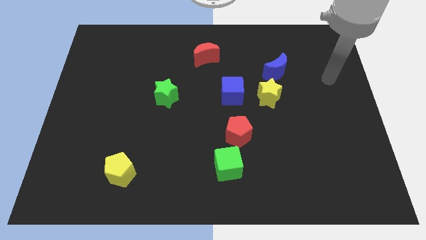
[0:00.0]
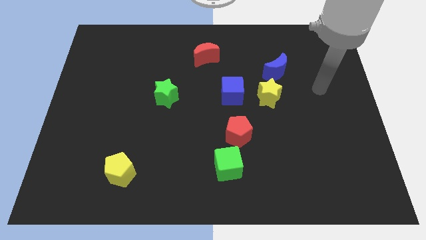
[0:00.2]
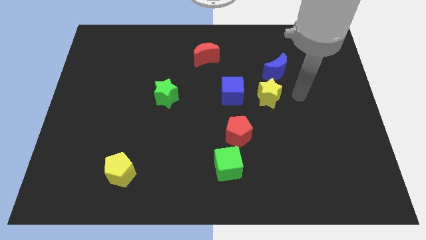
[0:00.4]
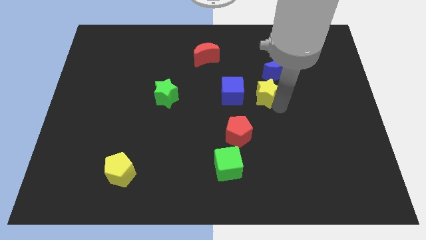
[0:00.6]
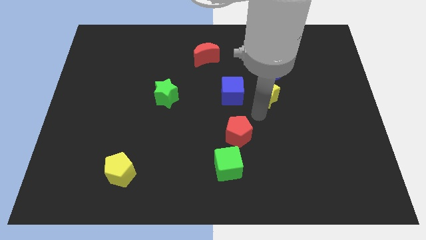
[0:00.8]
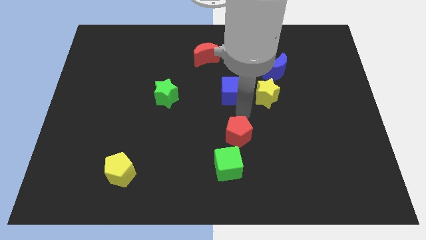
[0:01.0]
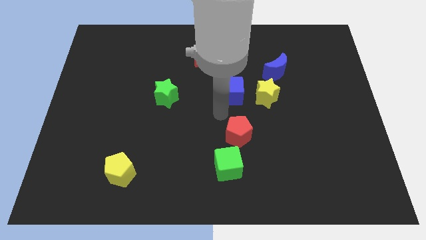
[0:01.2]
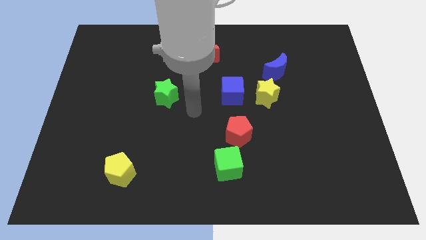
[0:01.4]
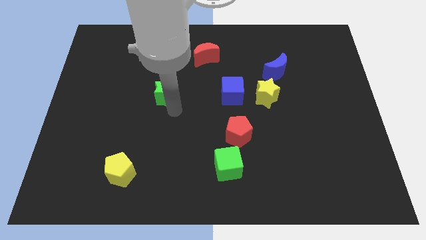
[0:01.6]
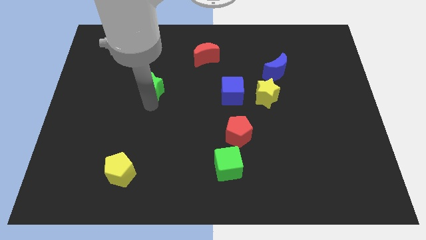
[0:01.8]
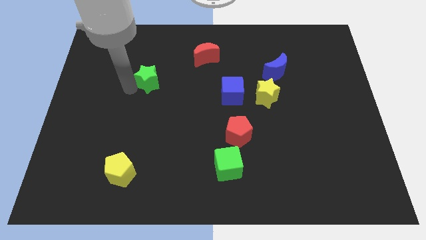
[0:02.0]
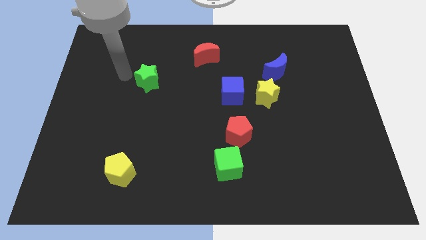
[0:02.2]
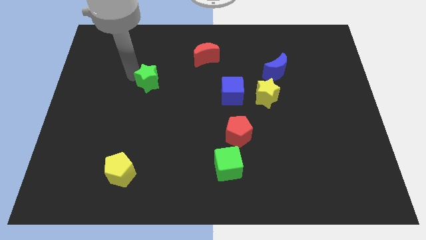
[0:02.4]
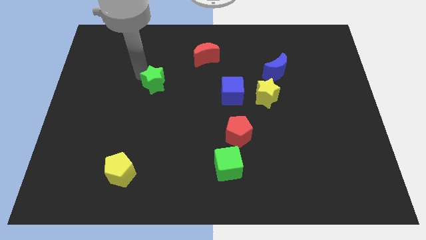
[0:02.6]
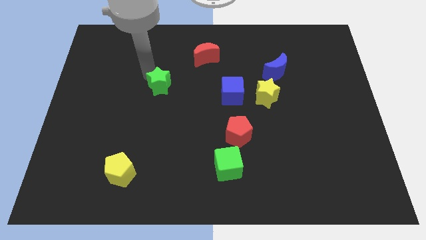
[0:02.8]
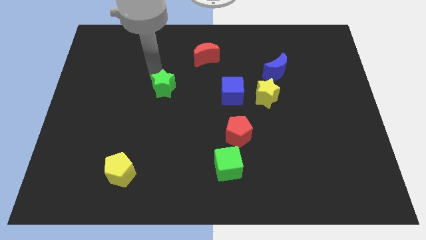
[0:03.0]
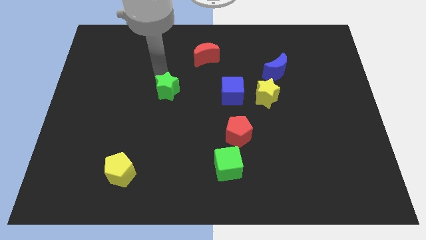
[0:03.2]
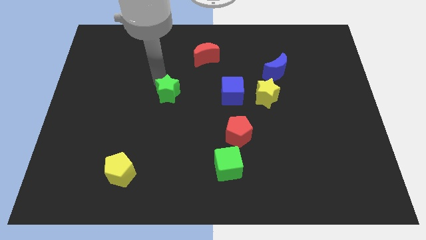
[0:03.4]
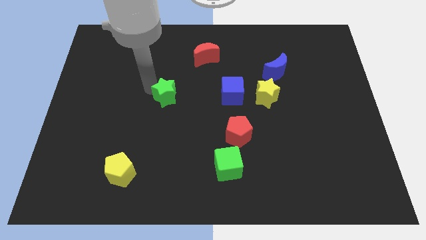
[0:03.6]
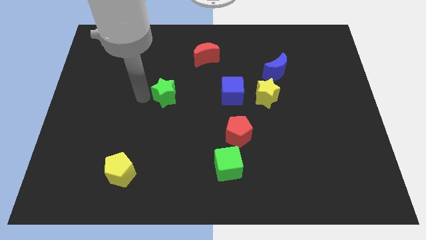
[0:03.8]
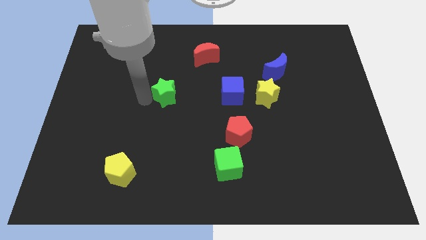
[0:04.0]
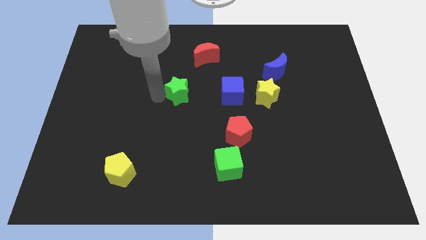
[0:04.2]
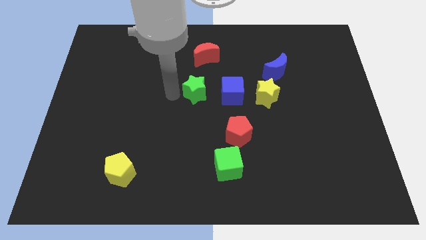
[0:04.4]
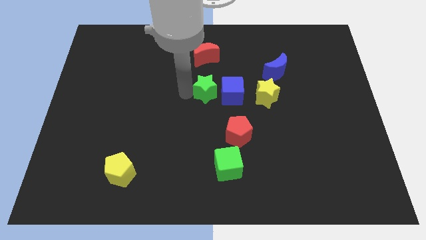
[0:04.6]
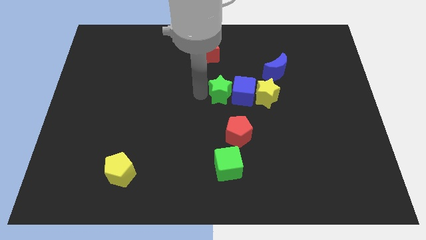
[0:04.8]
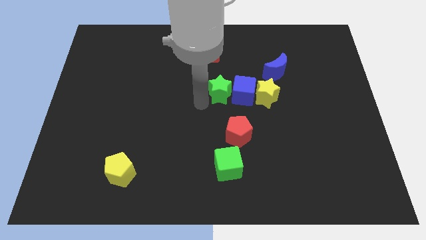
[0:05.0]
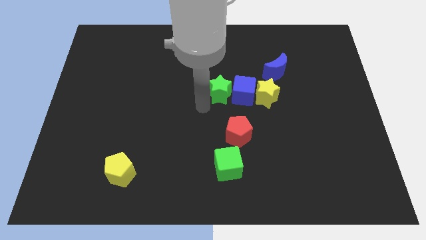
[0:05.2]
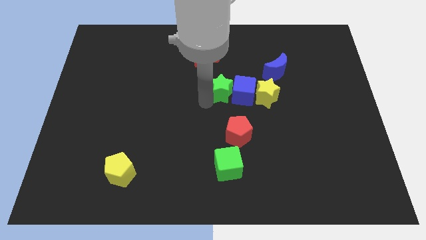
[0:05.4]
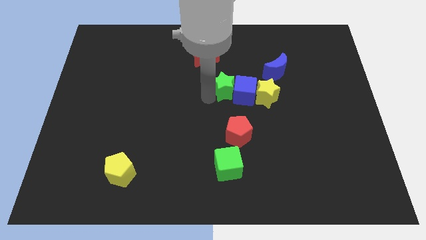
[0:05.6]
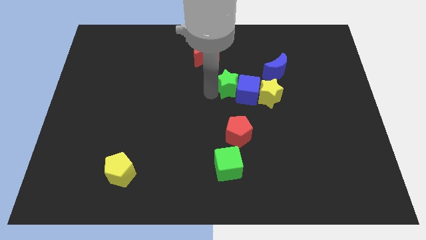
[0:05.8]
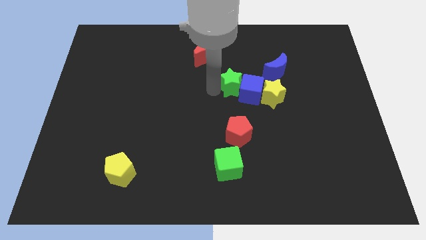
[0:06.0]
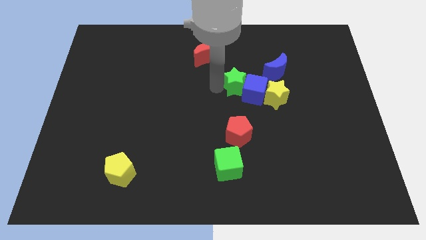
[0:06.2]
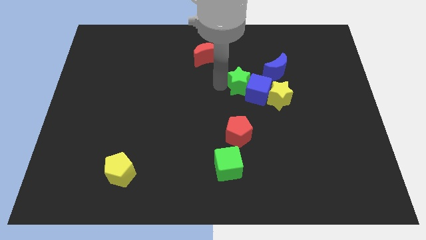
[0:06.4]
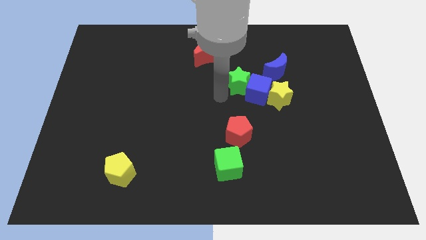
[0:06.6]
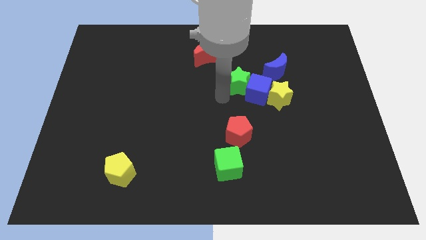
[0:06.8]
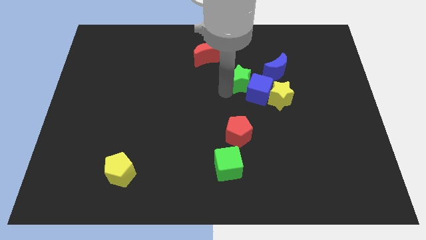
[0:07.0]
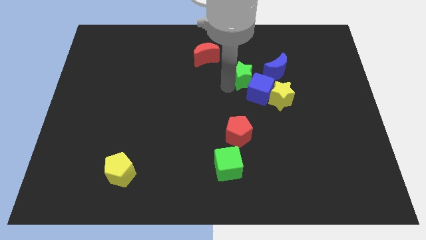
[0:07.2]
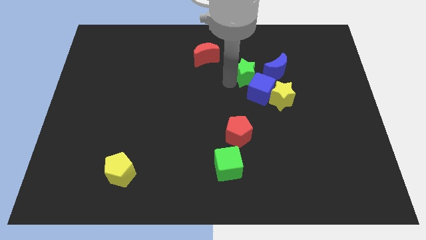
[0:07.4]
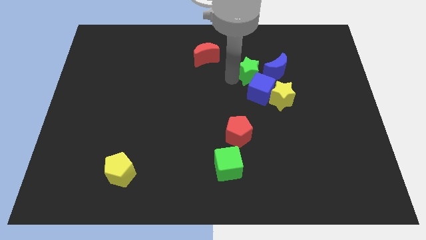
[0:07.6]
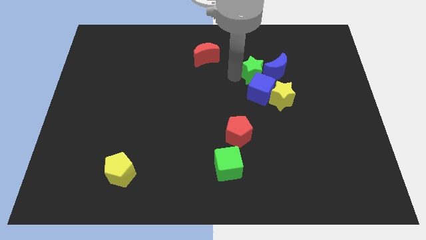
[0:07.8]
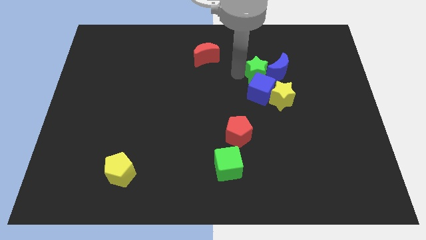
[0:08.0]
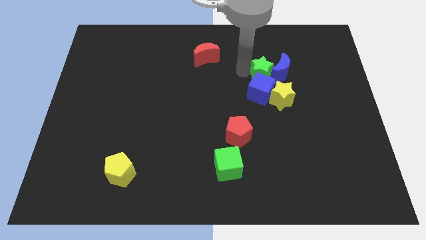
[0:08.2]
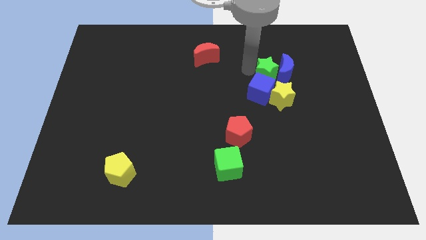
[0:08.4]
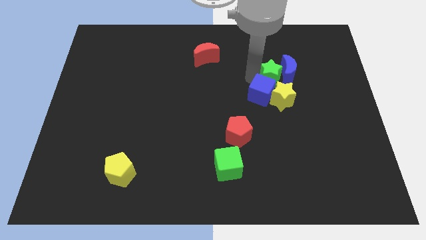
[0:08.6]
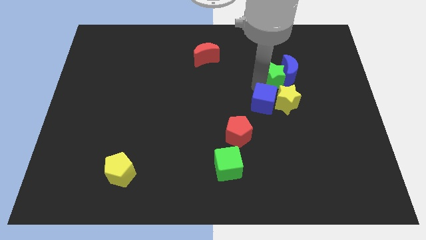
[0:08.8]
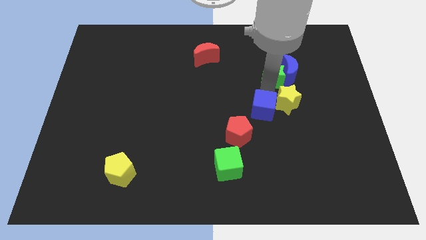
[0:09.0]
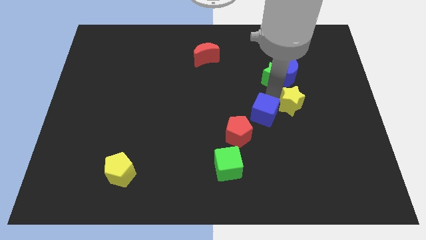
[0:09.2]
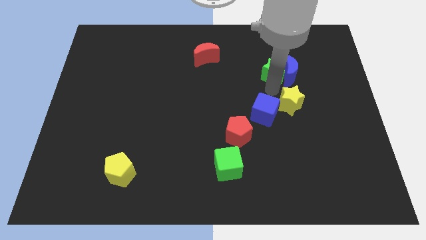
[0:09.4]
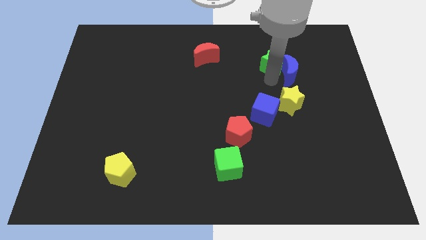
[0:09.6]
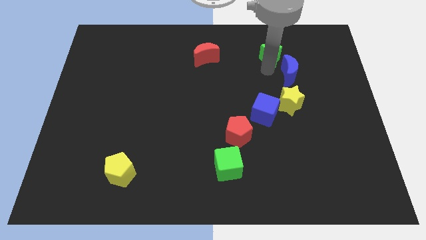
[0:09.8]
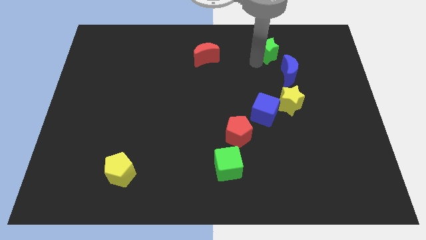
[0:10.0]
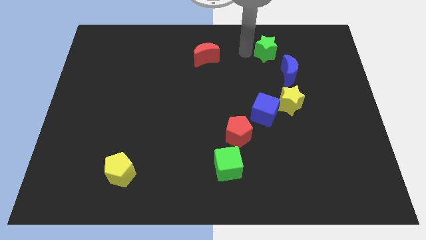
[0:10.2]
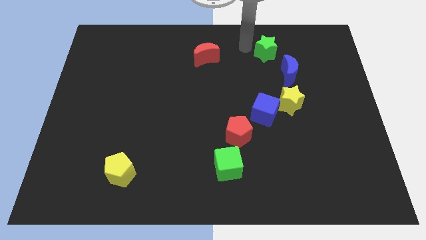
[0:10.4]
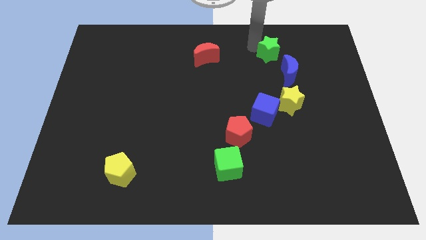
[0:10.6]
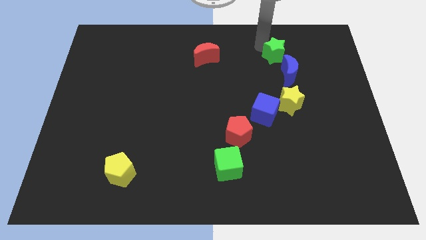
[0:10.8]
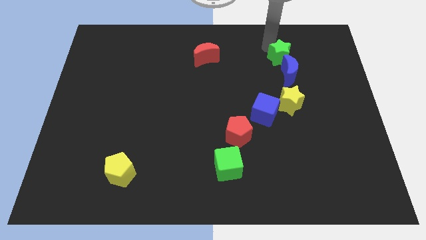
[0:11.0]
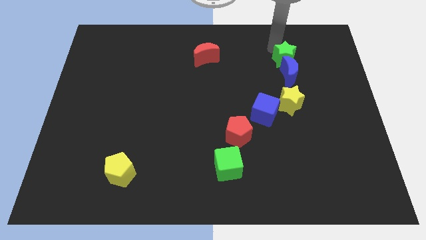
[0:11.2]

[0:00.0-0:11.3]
push the green star to the top right of the blue moon

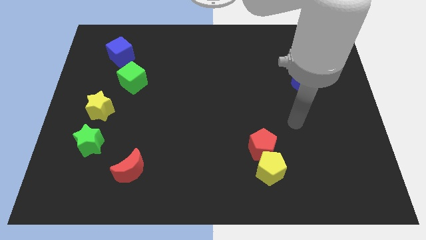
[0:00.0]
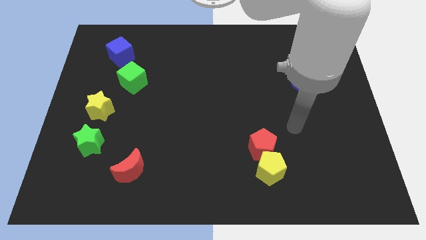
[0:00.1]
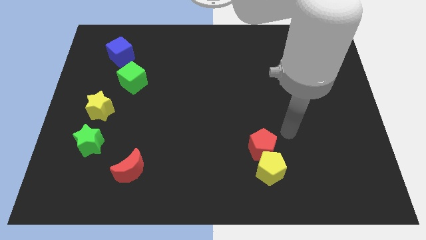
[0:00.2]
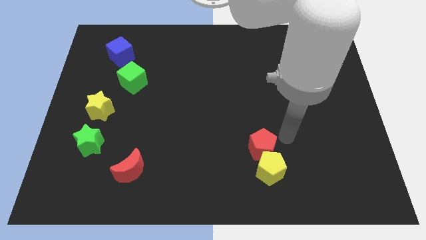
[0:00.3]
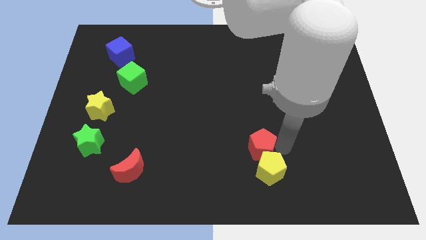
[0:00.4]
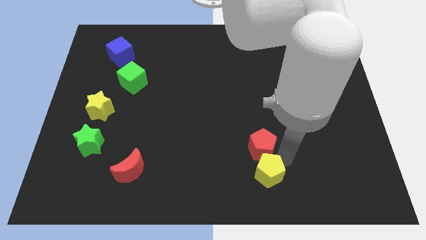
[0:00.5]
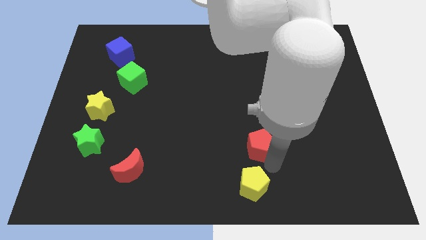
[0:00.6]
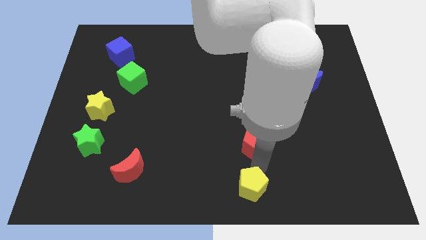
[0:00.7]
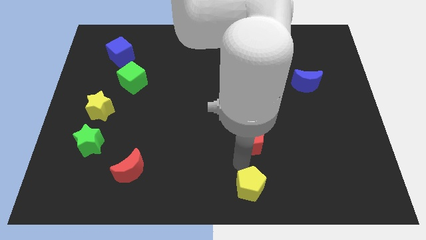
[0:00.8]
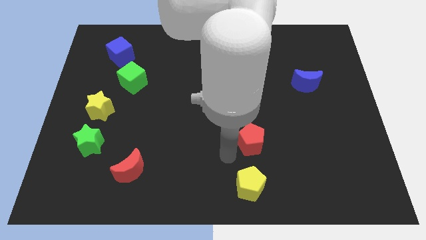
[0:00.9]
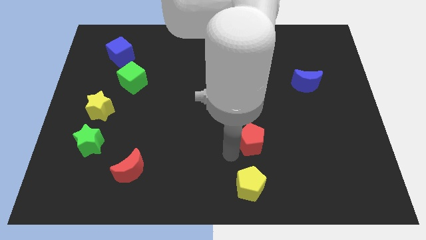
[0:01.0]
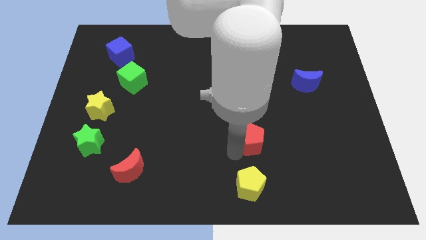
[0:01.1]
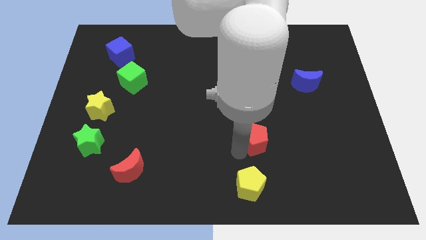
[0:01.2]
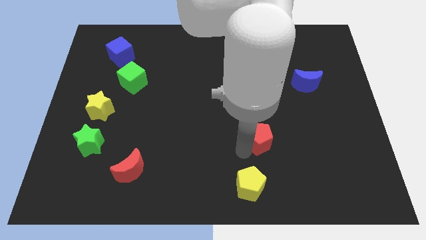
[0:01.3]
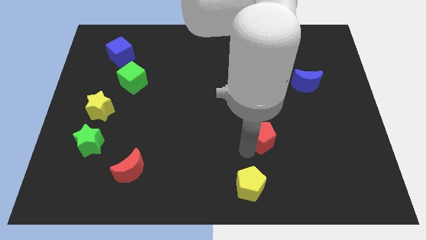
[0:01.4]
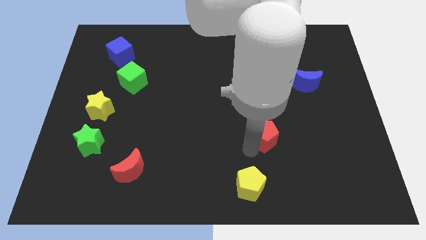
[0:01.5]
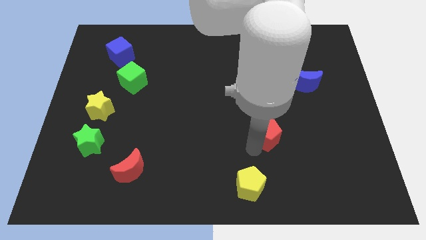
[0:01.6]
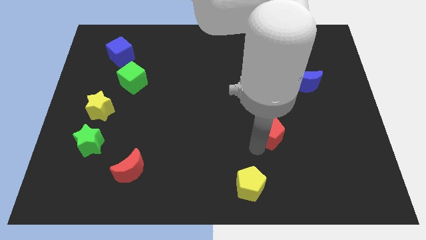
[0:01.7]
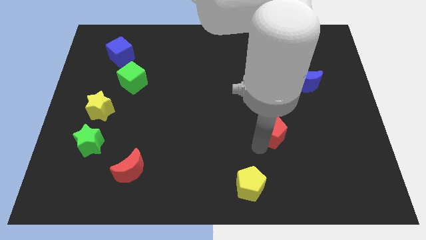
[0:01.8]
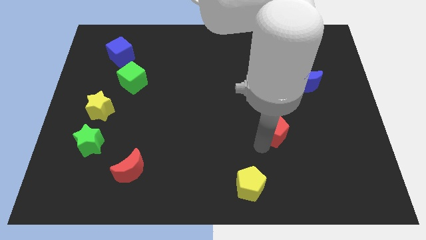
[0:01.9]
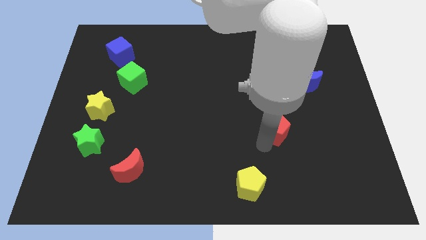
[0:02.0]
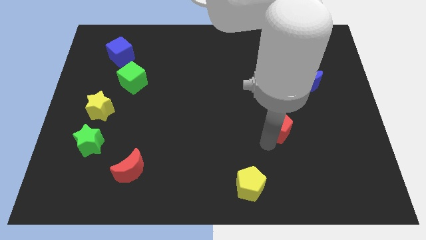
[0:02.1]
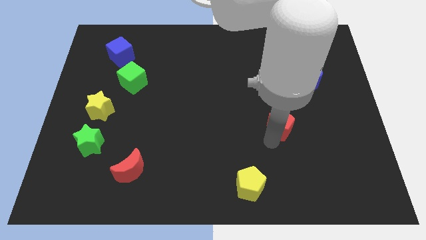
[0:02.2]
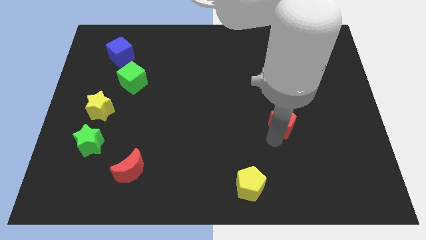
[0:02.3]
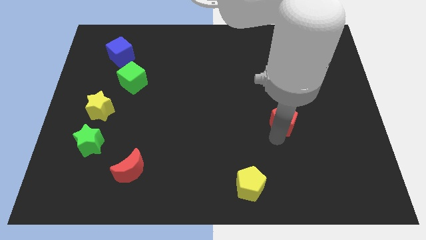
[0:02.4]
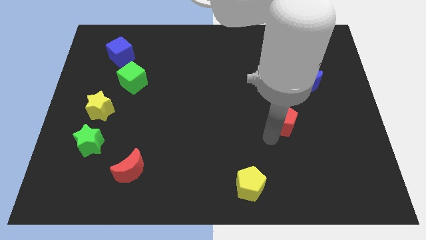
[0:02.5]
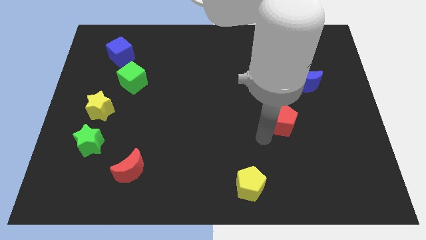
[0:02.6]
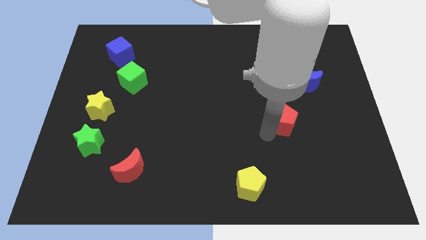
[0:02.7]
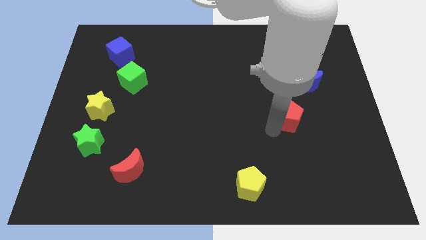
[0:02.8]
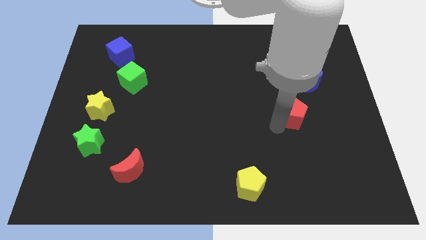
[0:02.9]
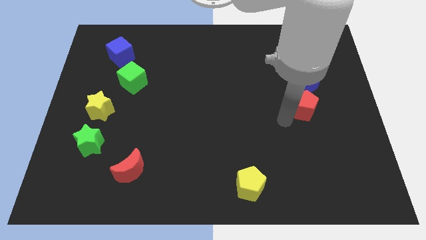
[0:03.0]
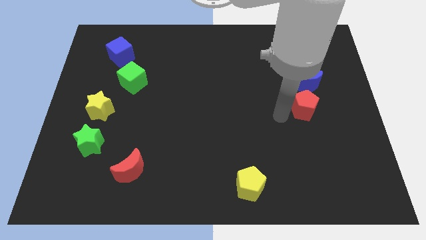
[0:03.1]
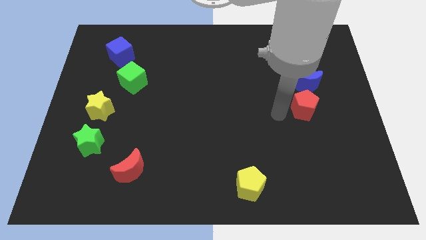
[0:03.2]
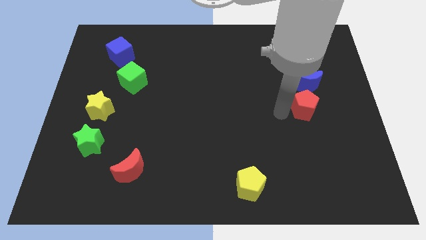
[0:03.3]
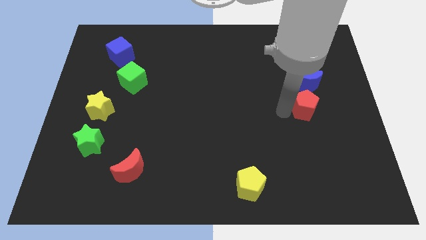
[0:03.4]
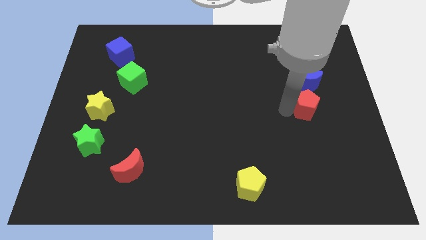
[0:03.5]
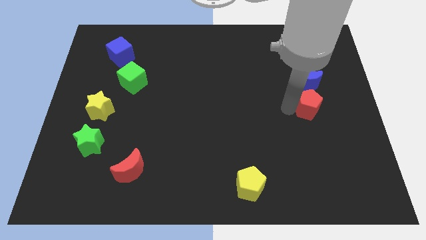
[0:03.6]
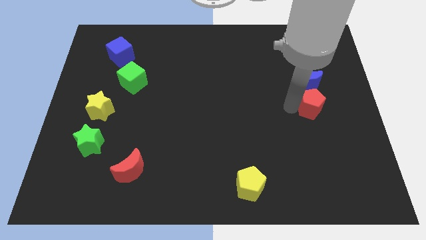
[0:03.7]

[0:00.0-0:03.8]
move the red pentagon to the bottom right side of the blue moon
